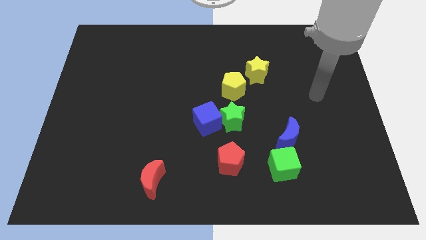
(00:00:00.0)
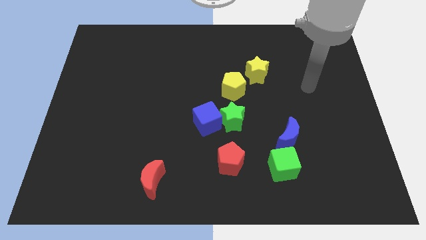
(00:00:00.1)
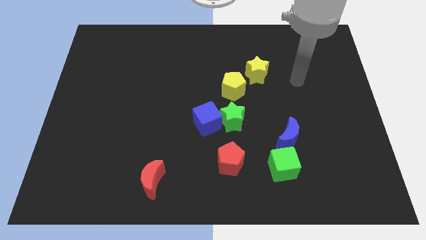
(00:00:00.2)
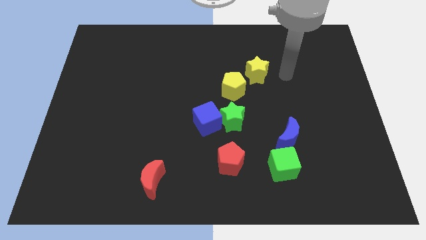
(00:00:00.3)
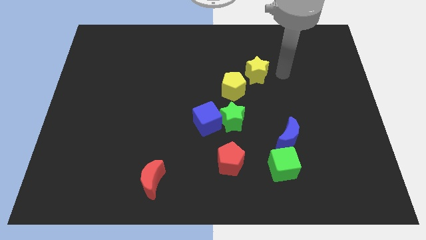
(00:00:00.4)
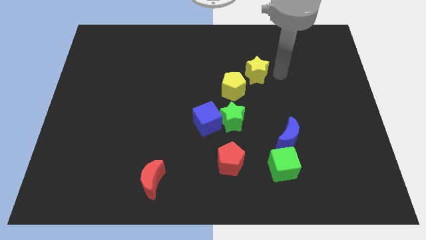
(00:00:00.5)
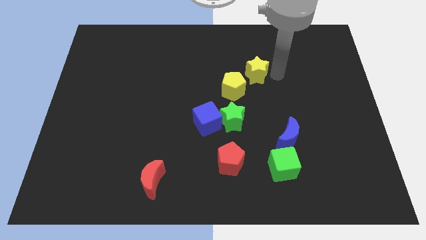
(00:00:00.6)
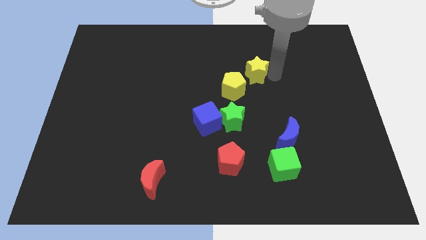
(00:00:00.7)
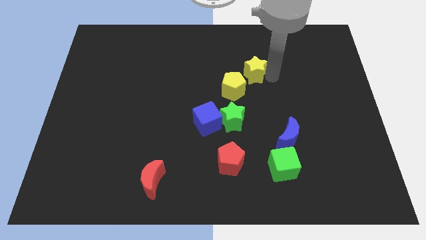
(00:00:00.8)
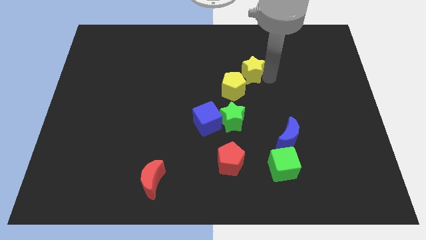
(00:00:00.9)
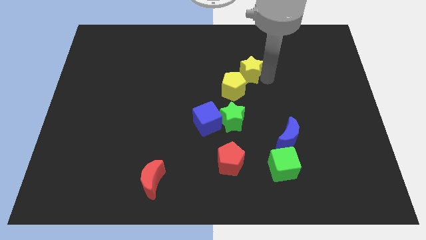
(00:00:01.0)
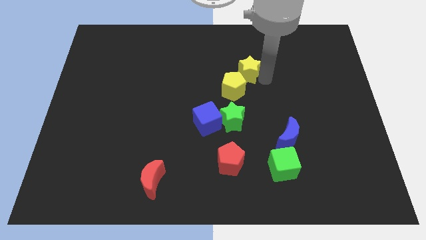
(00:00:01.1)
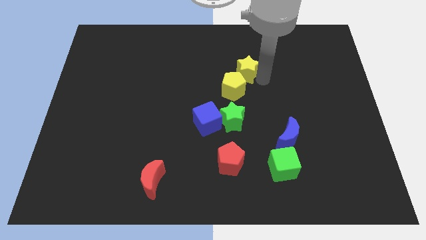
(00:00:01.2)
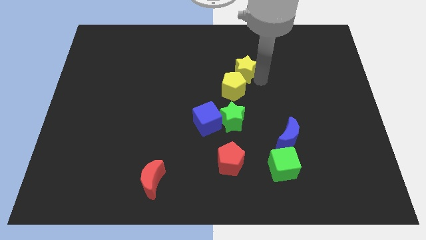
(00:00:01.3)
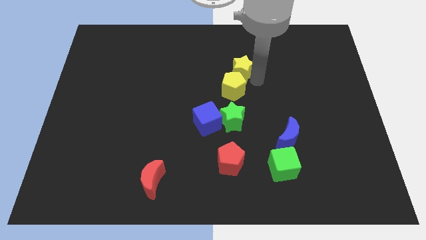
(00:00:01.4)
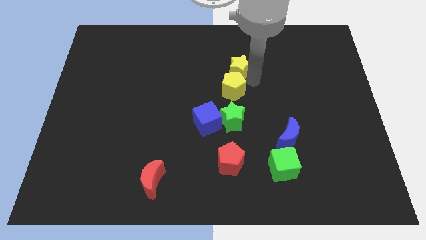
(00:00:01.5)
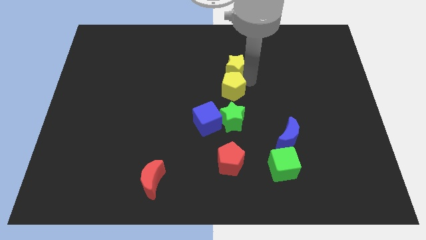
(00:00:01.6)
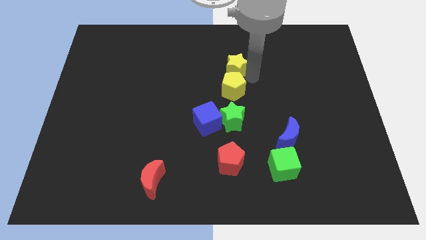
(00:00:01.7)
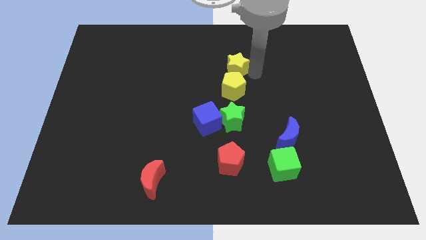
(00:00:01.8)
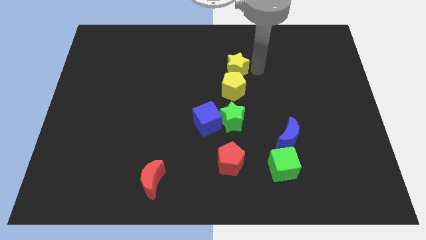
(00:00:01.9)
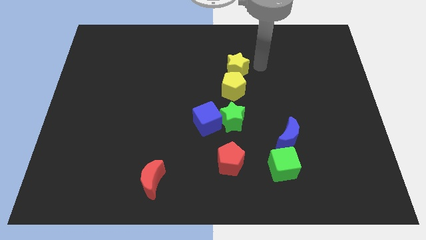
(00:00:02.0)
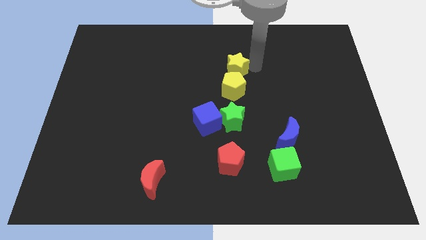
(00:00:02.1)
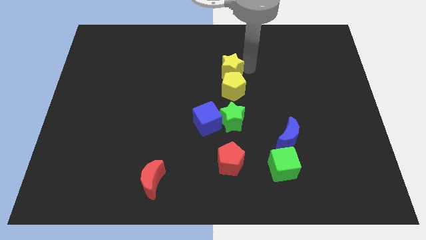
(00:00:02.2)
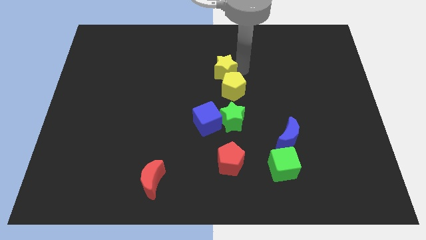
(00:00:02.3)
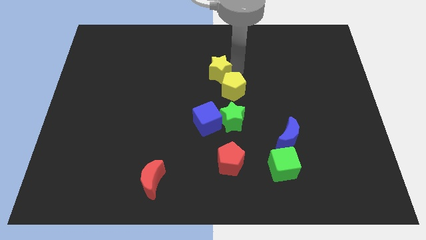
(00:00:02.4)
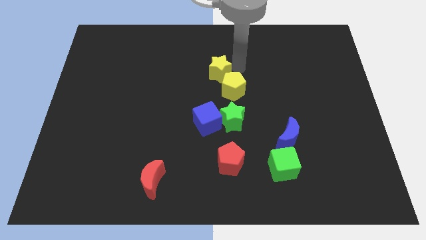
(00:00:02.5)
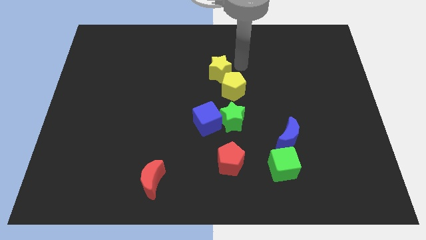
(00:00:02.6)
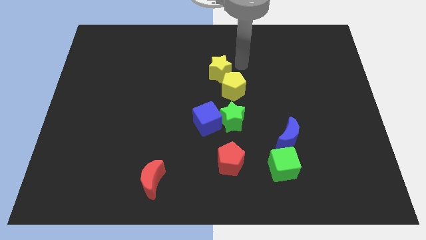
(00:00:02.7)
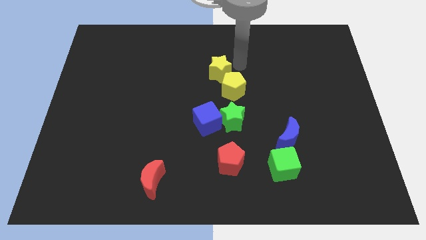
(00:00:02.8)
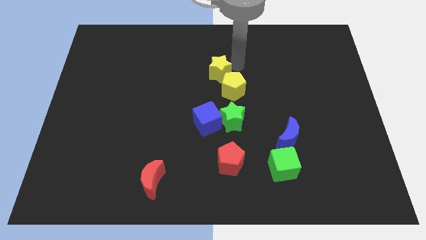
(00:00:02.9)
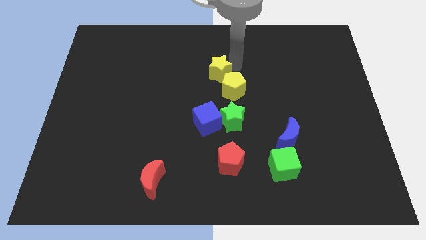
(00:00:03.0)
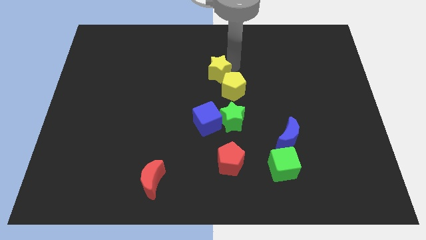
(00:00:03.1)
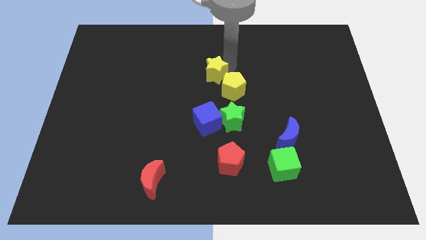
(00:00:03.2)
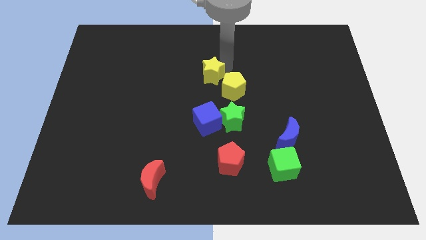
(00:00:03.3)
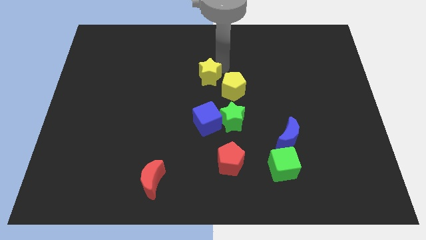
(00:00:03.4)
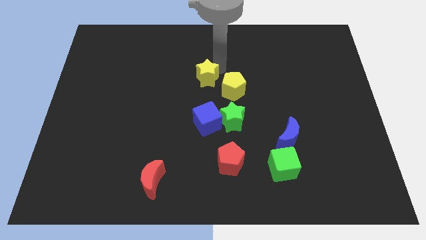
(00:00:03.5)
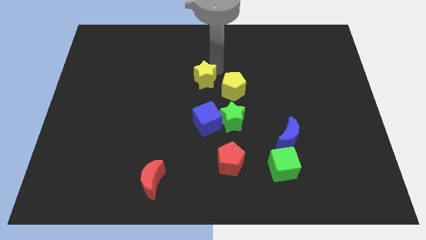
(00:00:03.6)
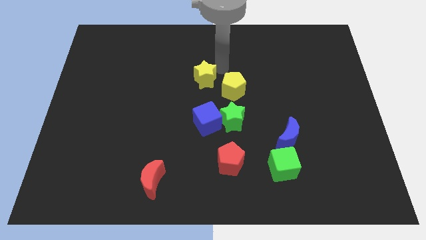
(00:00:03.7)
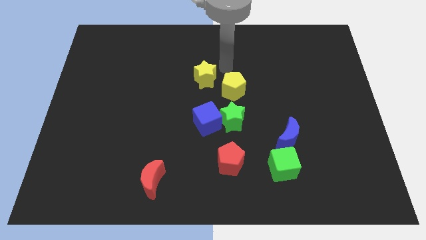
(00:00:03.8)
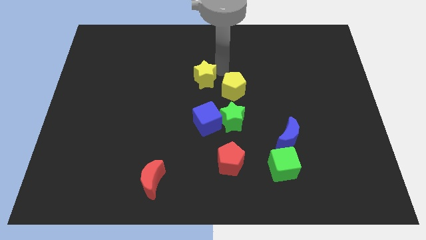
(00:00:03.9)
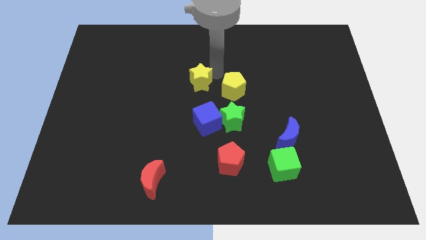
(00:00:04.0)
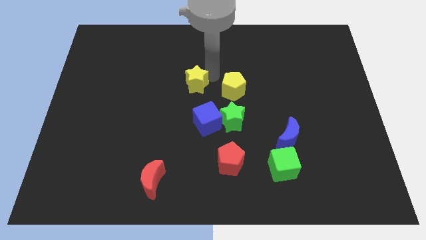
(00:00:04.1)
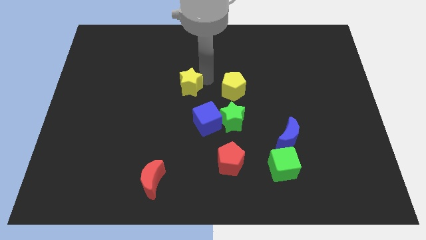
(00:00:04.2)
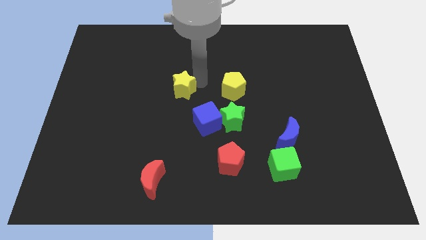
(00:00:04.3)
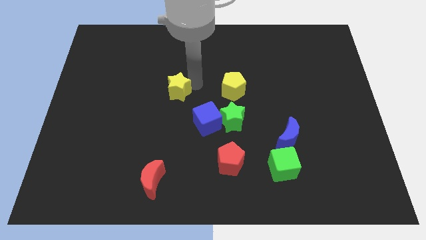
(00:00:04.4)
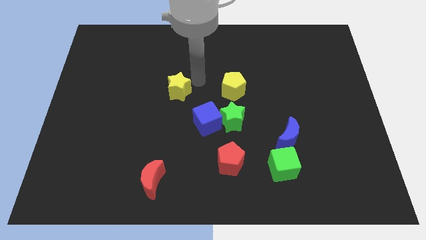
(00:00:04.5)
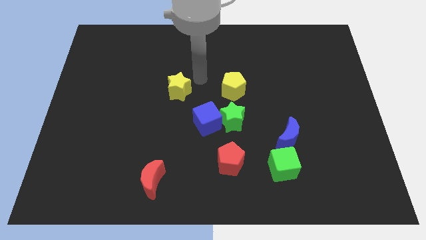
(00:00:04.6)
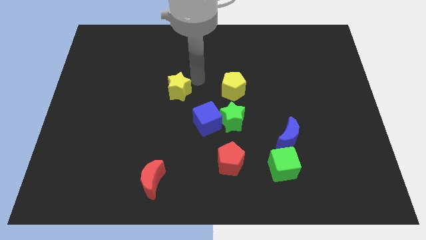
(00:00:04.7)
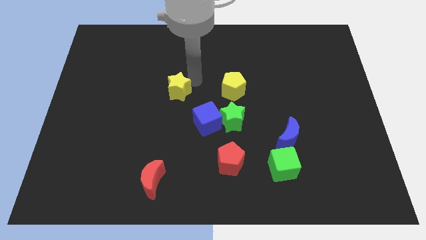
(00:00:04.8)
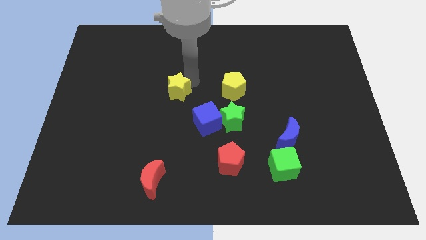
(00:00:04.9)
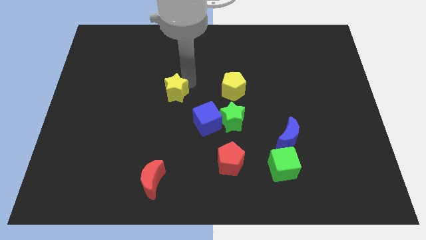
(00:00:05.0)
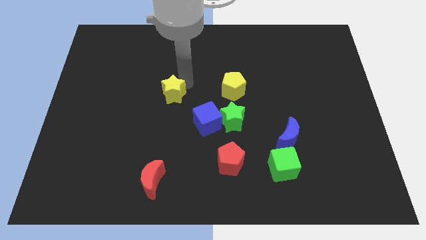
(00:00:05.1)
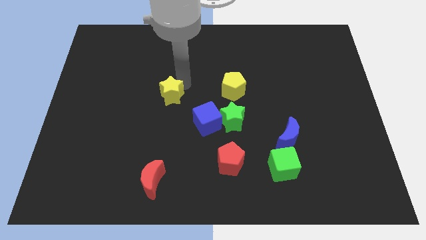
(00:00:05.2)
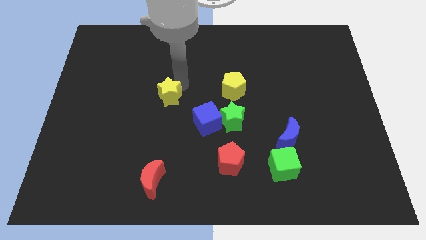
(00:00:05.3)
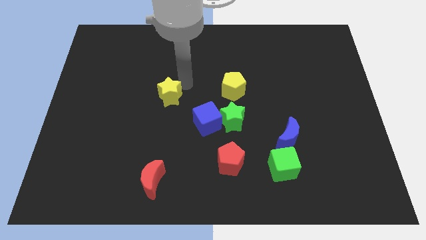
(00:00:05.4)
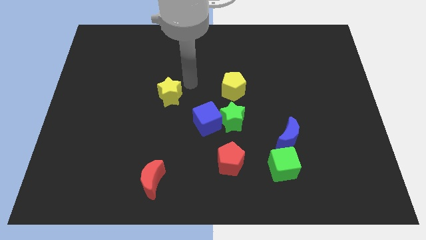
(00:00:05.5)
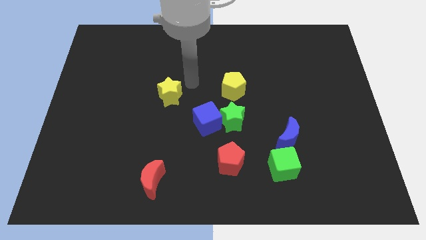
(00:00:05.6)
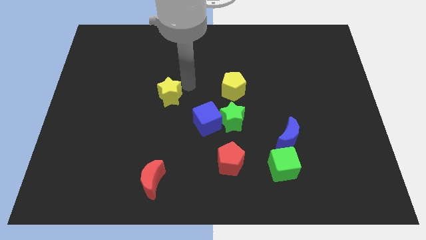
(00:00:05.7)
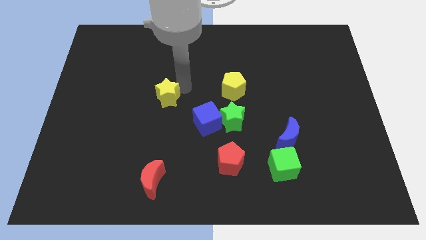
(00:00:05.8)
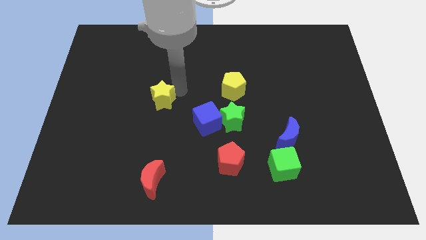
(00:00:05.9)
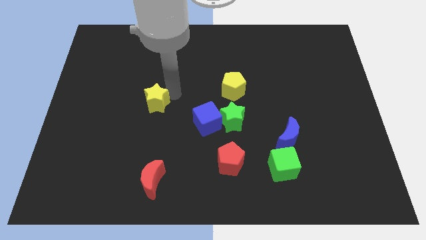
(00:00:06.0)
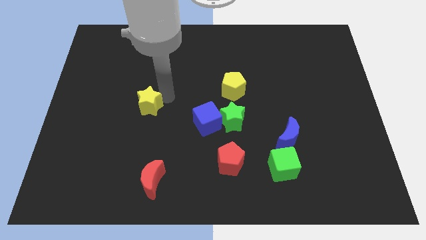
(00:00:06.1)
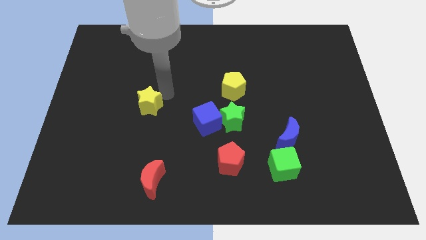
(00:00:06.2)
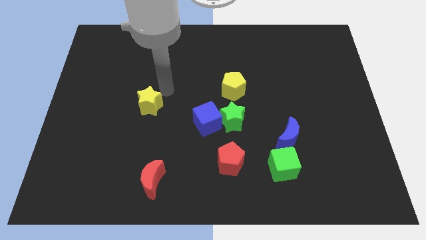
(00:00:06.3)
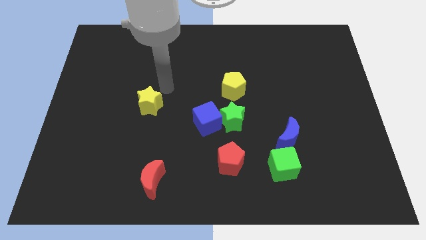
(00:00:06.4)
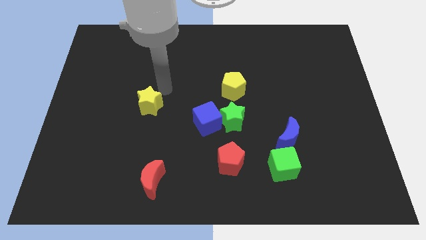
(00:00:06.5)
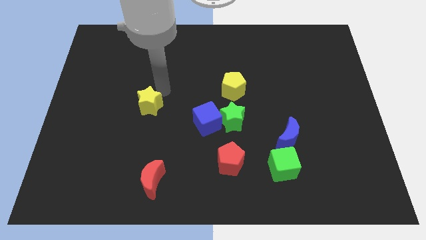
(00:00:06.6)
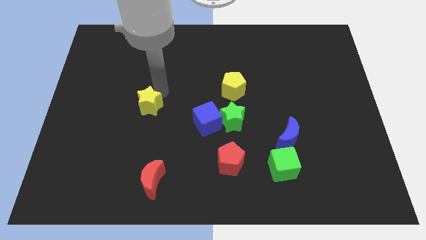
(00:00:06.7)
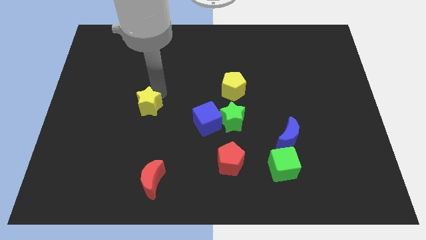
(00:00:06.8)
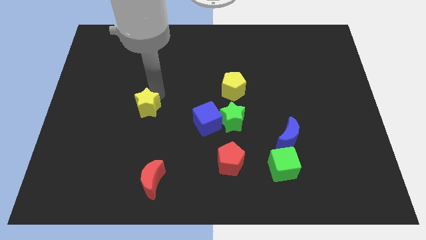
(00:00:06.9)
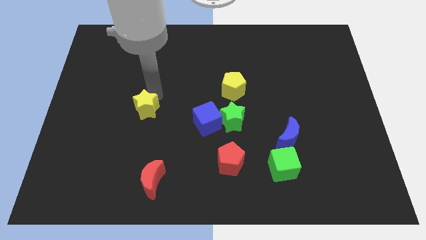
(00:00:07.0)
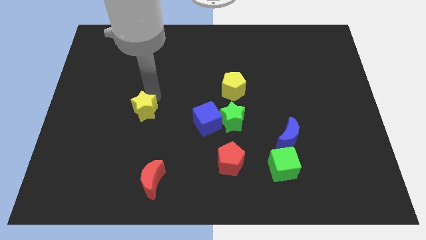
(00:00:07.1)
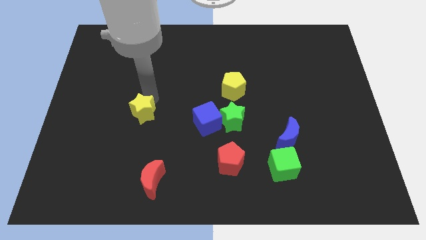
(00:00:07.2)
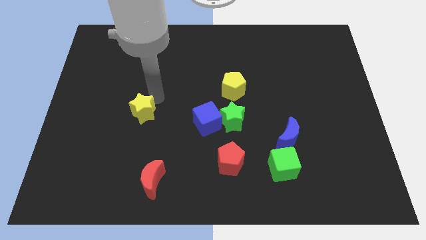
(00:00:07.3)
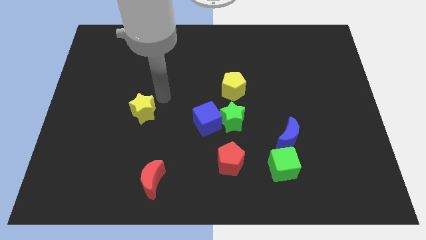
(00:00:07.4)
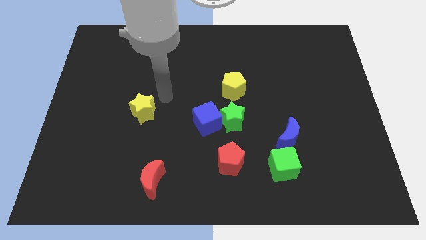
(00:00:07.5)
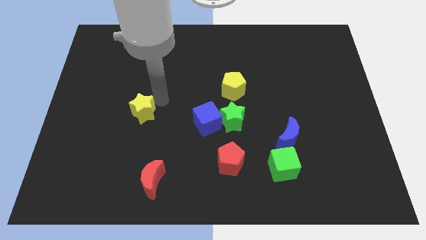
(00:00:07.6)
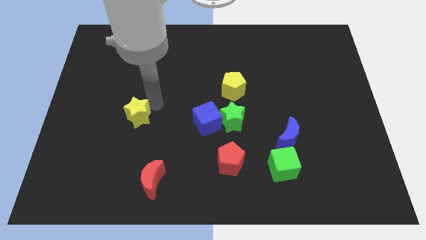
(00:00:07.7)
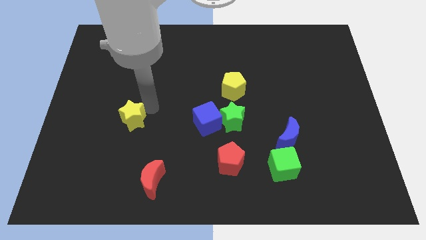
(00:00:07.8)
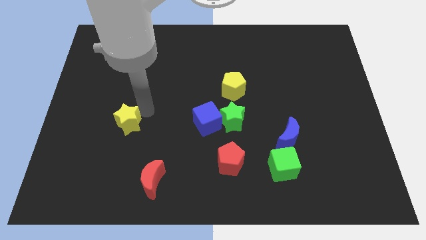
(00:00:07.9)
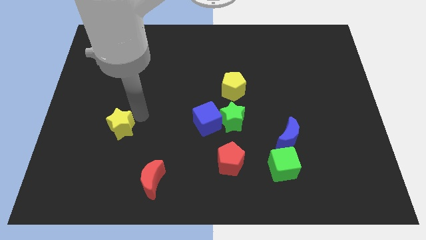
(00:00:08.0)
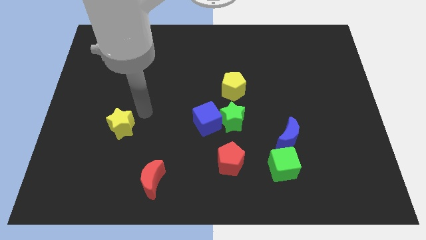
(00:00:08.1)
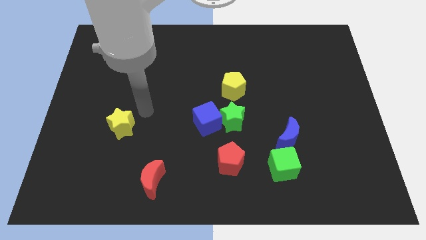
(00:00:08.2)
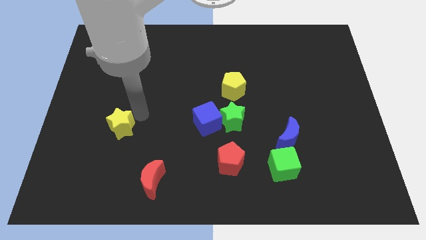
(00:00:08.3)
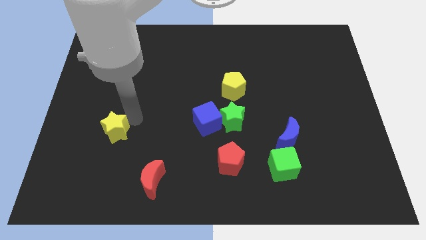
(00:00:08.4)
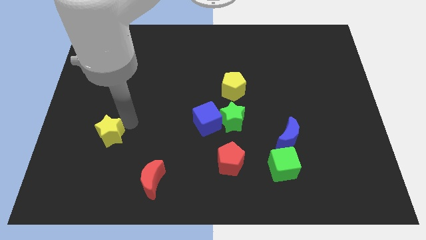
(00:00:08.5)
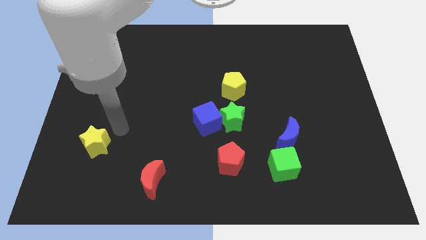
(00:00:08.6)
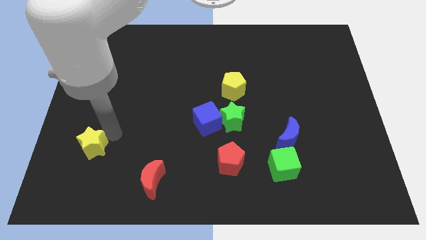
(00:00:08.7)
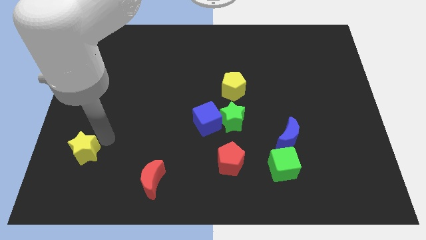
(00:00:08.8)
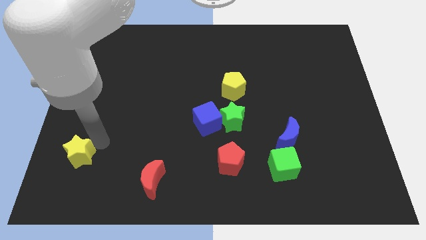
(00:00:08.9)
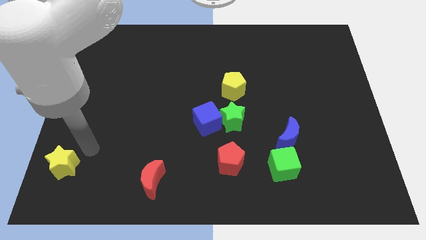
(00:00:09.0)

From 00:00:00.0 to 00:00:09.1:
push the yellow star to the bottom left corner
